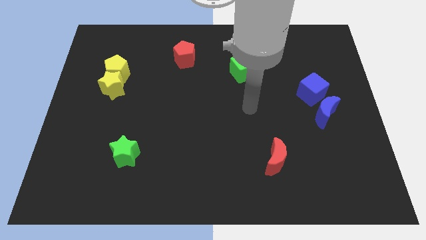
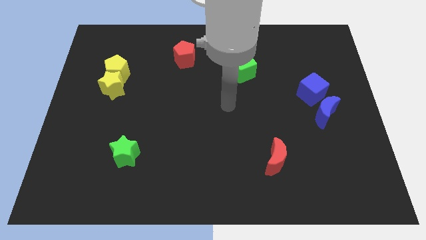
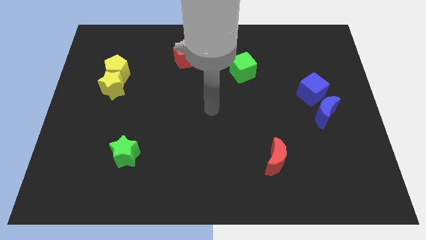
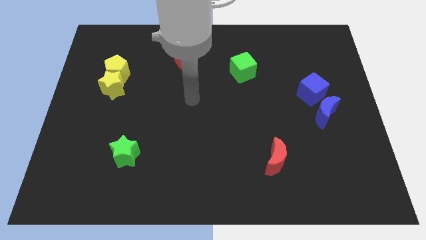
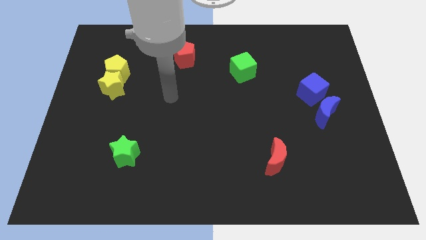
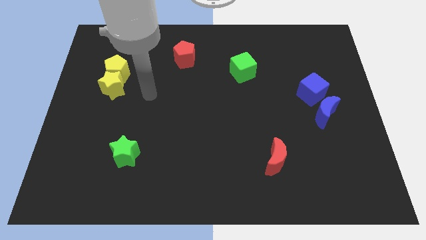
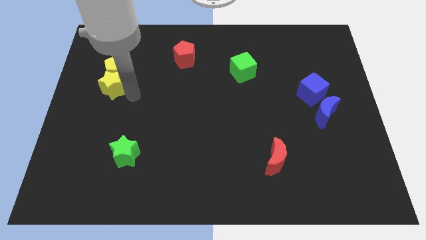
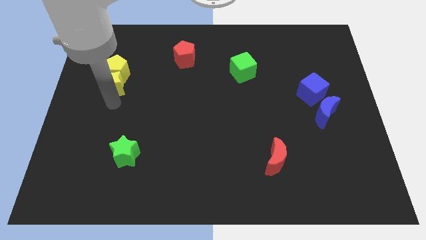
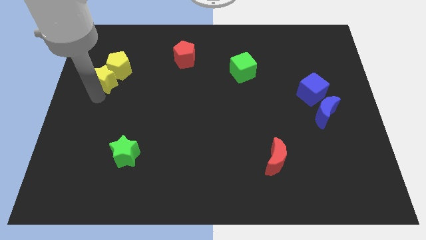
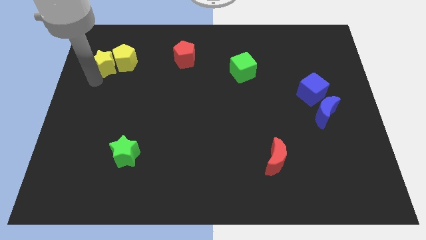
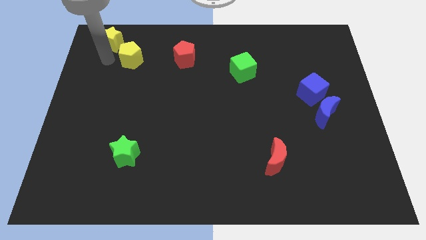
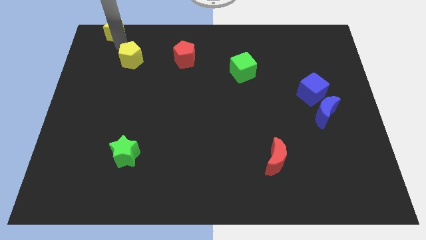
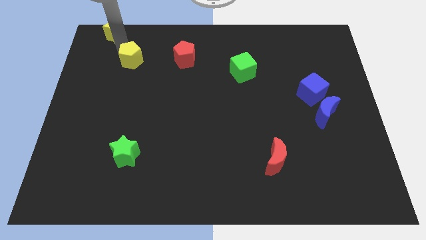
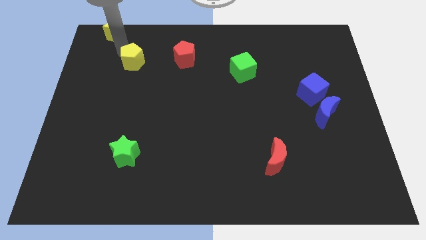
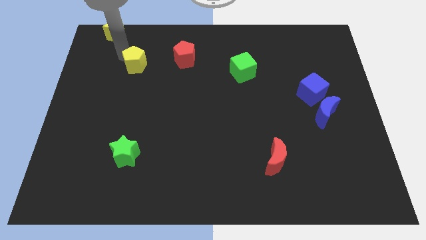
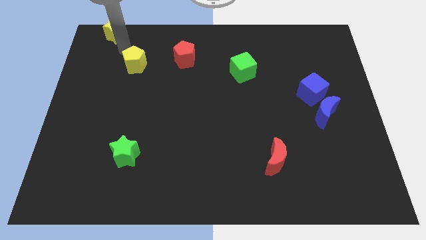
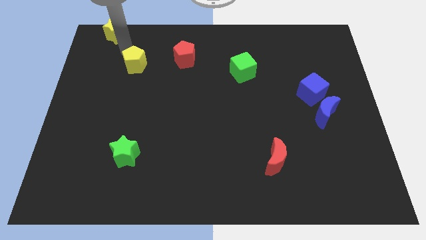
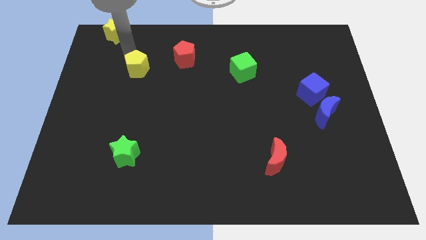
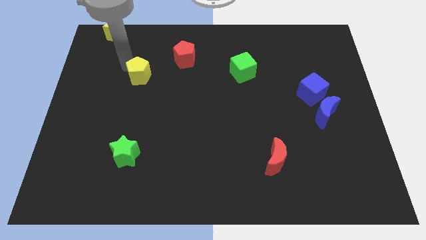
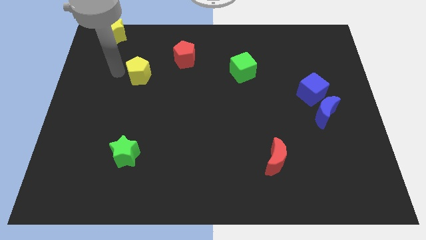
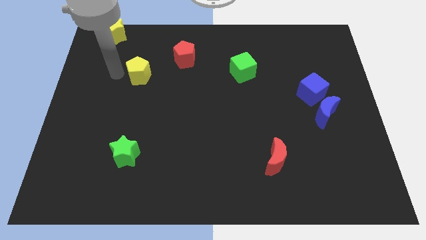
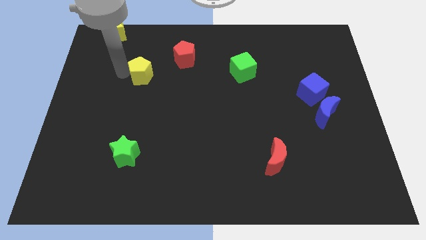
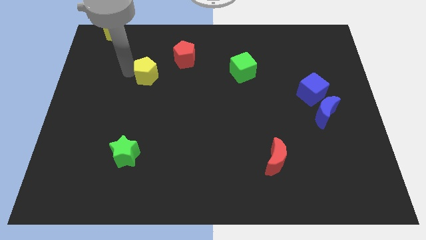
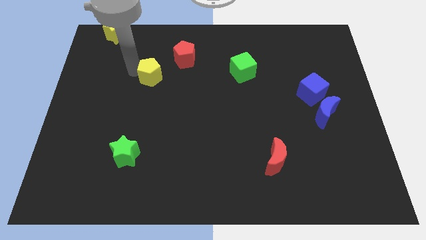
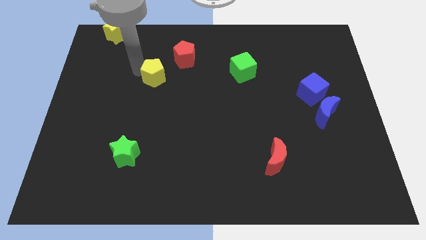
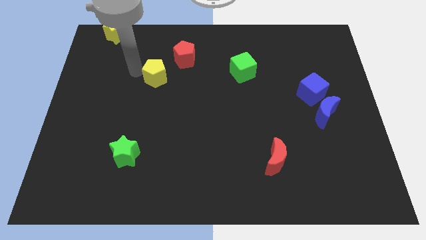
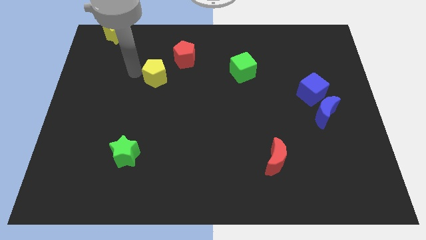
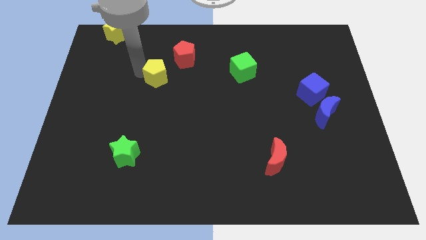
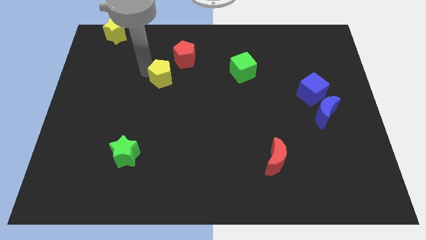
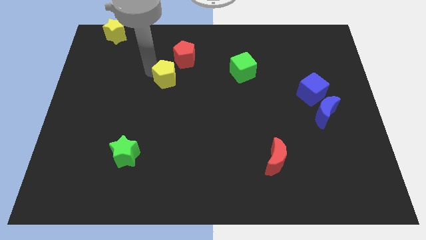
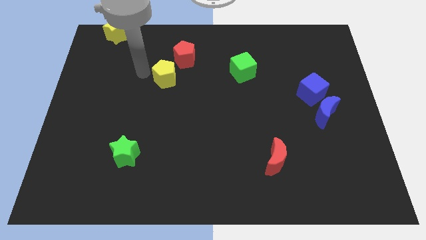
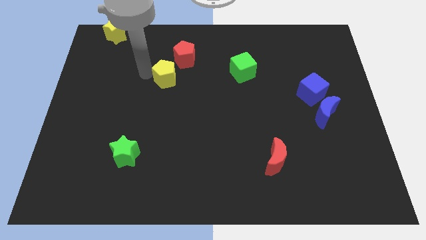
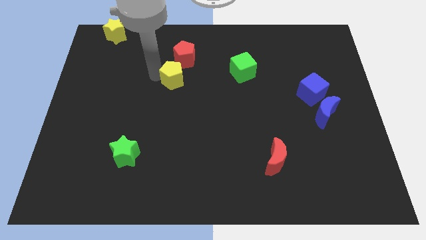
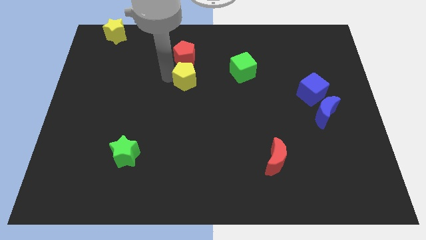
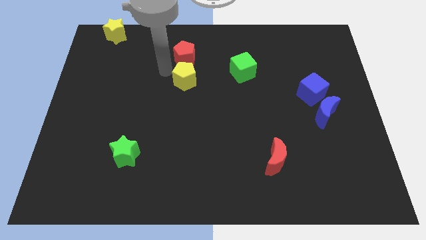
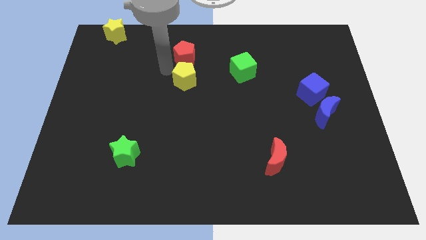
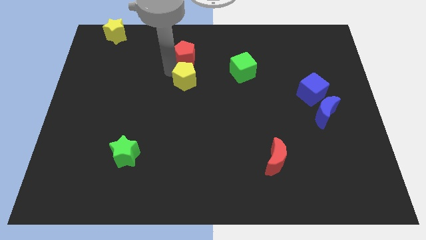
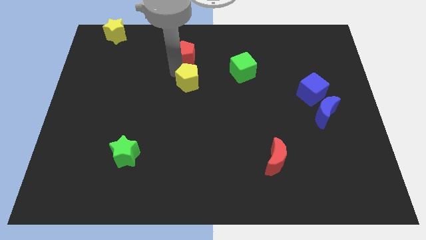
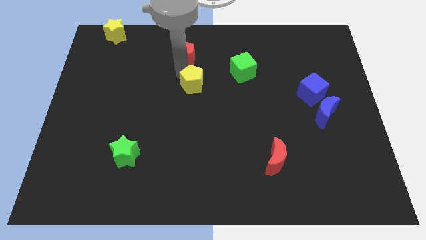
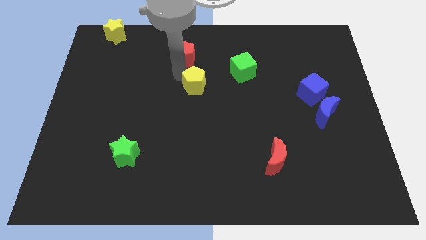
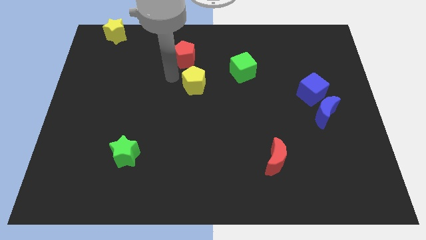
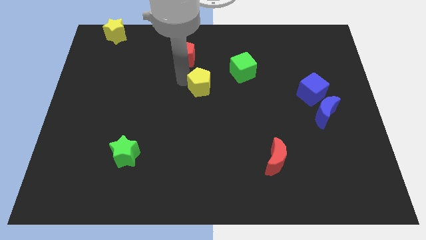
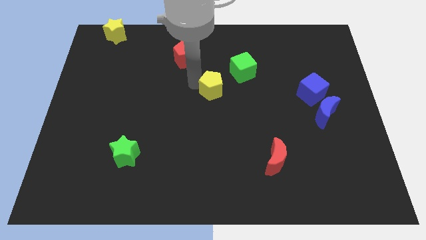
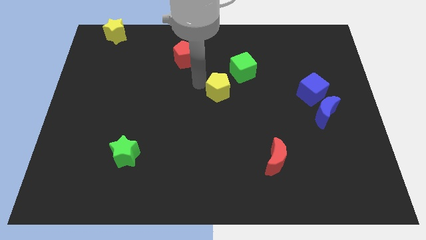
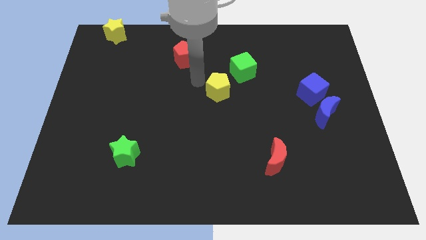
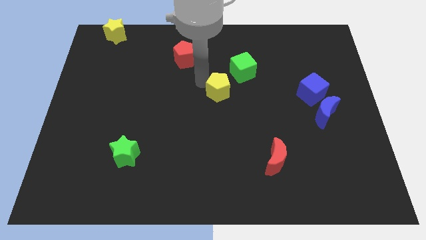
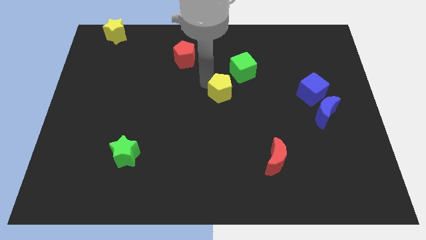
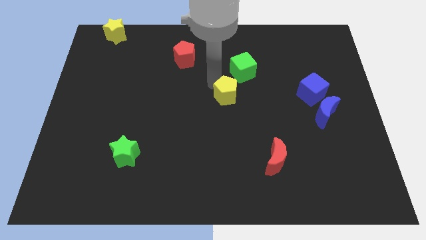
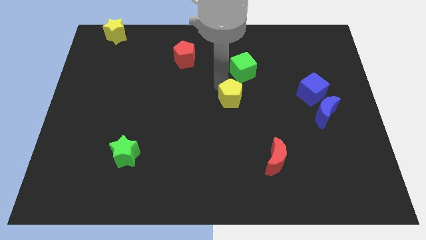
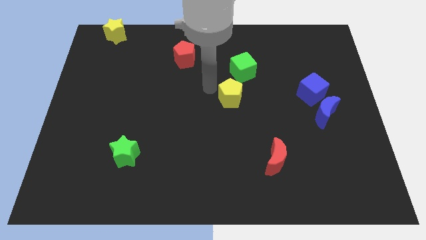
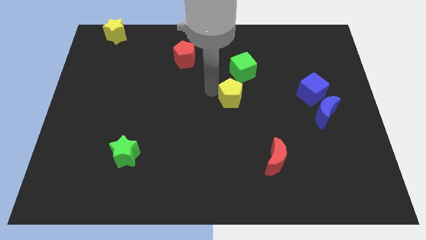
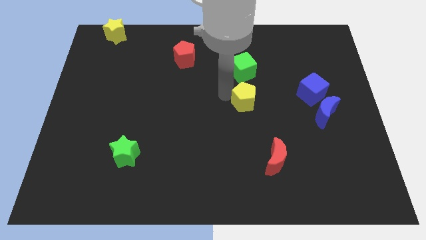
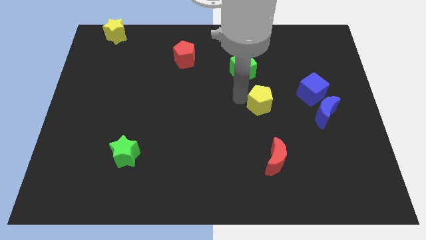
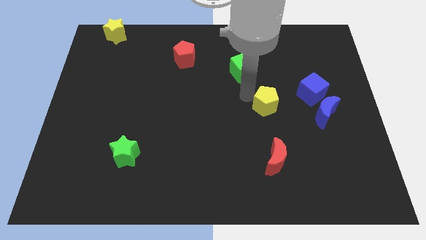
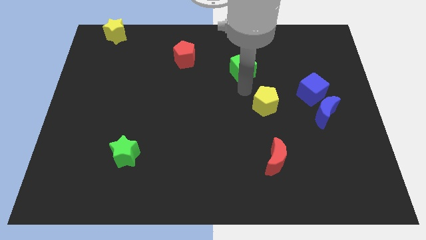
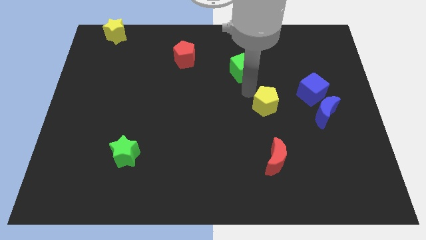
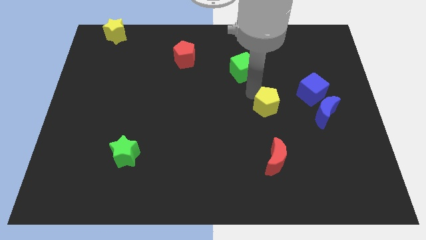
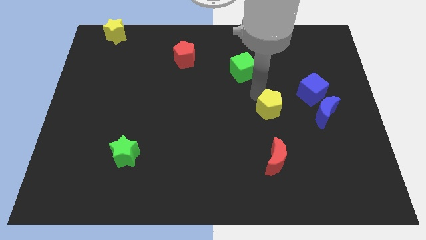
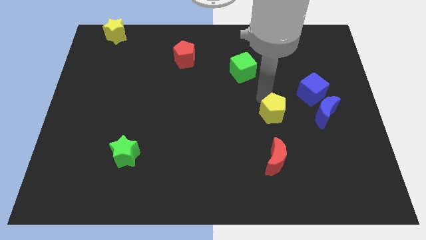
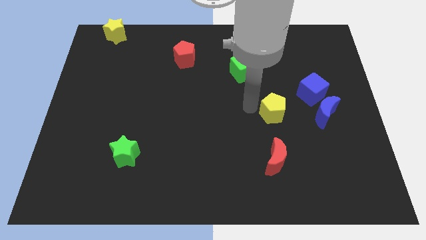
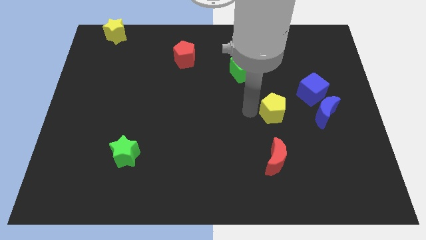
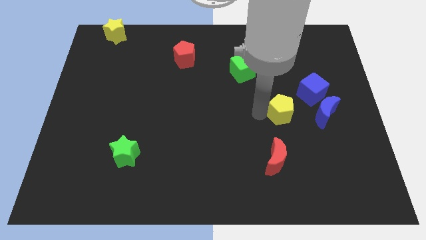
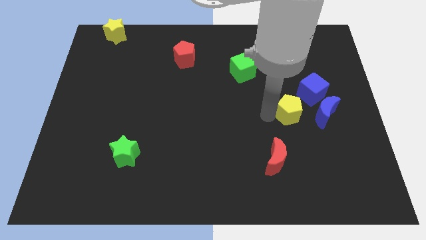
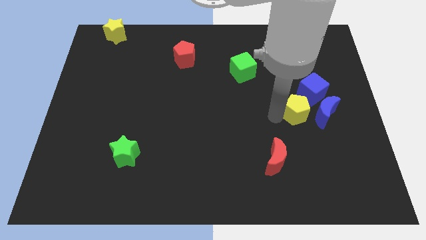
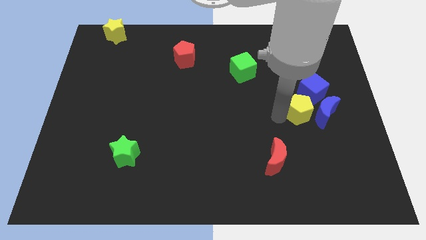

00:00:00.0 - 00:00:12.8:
push the yellow pentagon to the blue moon
